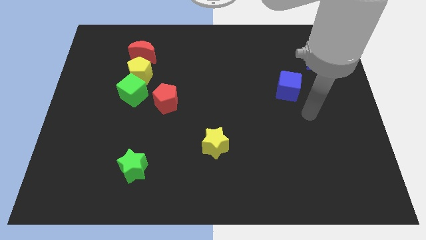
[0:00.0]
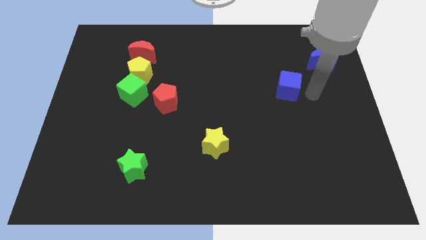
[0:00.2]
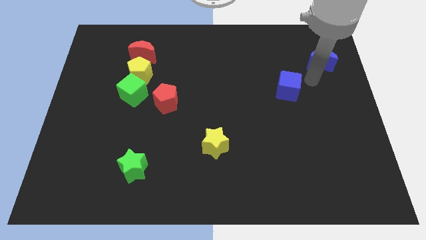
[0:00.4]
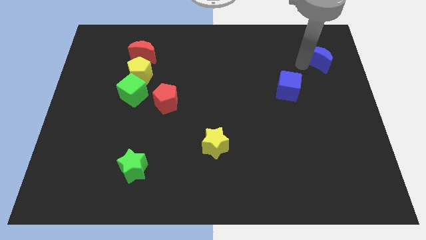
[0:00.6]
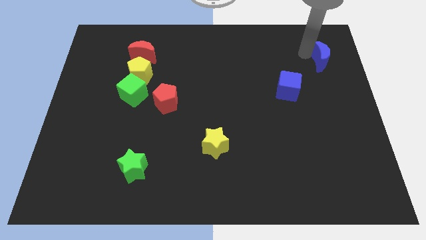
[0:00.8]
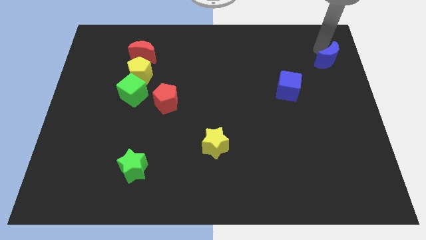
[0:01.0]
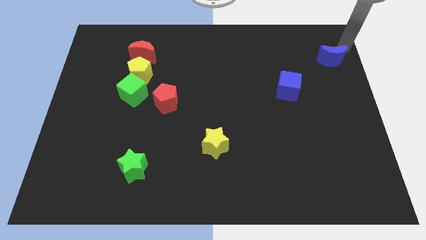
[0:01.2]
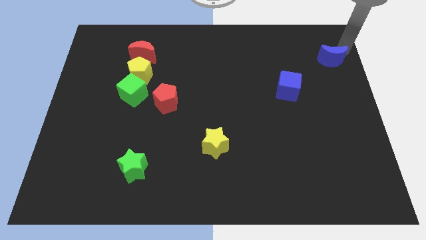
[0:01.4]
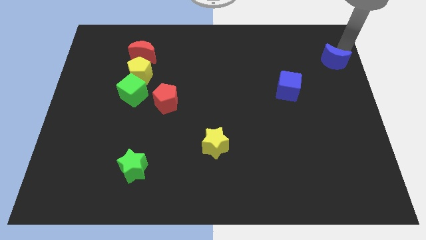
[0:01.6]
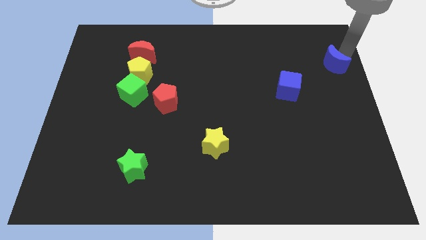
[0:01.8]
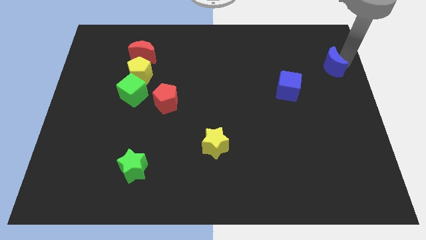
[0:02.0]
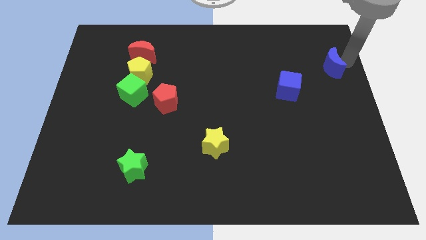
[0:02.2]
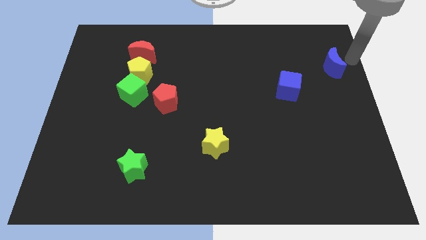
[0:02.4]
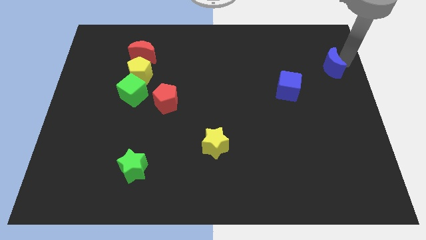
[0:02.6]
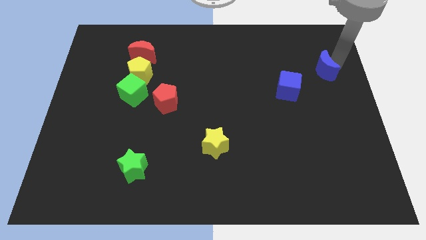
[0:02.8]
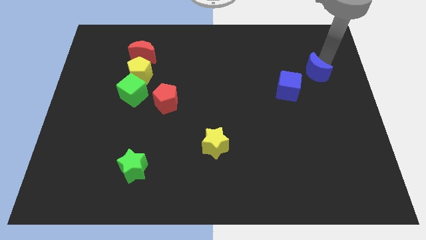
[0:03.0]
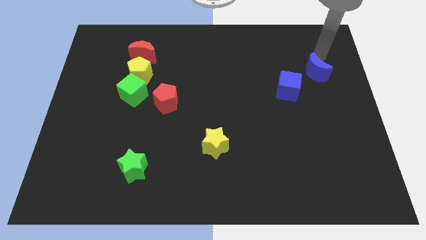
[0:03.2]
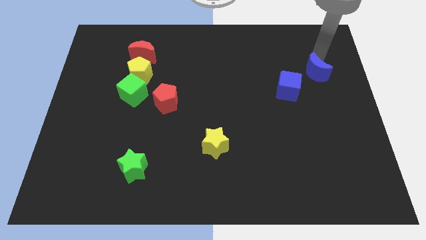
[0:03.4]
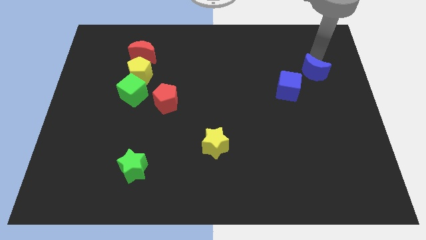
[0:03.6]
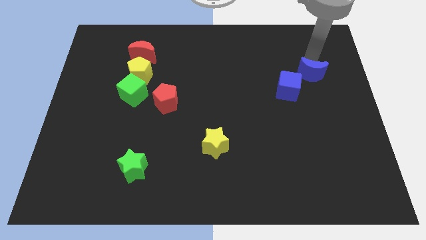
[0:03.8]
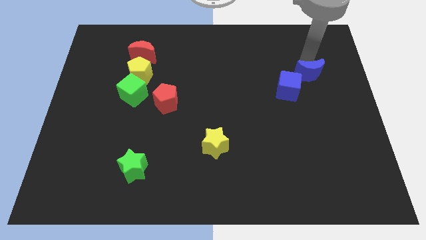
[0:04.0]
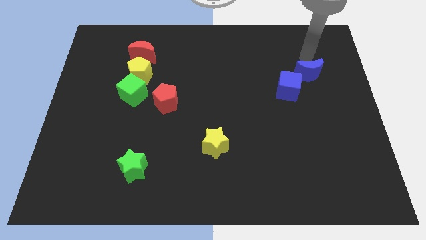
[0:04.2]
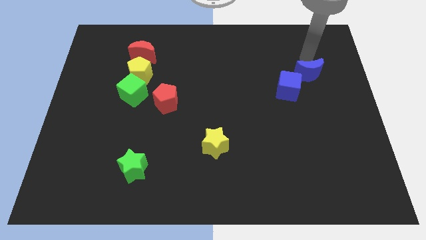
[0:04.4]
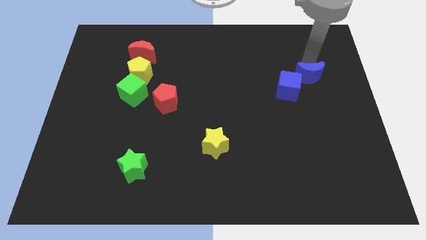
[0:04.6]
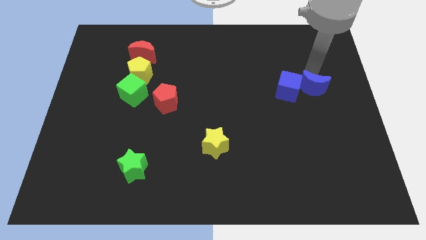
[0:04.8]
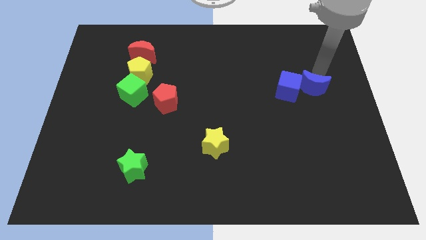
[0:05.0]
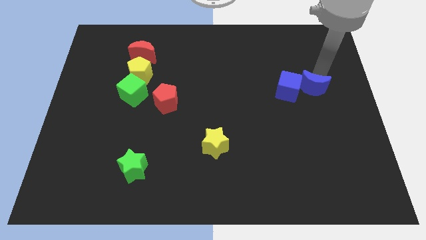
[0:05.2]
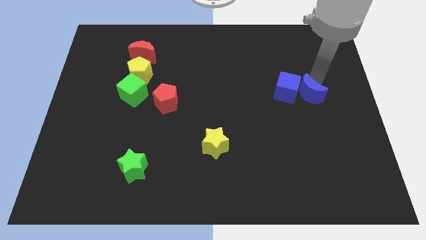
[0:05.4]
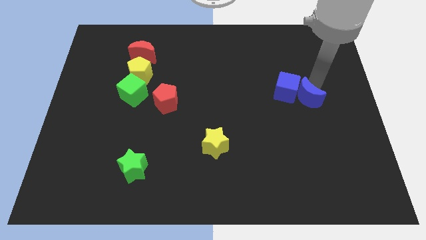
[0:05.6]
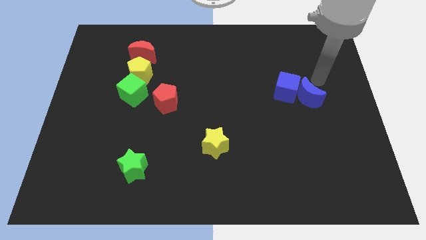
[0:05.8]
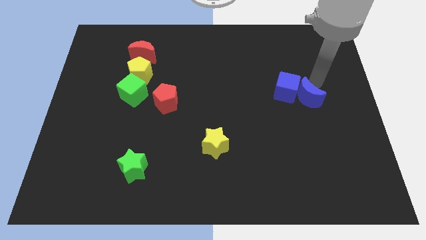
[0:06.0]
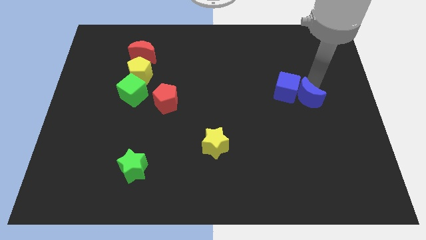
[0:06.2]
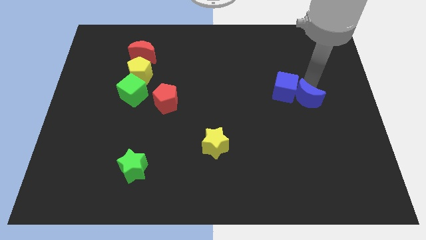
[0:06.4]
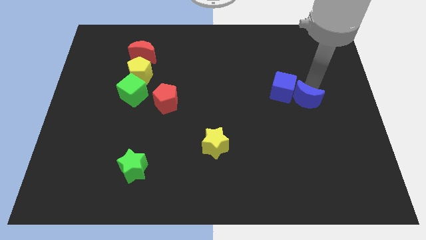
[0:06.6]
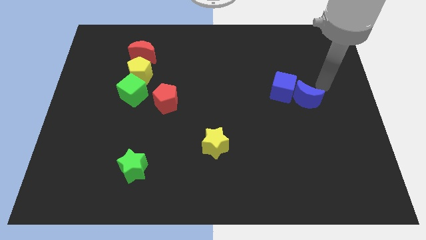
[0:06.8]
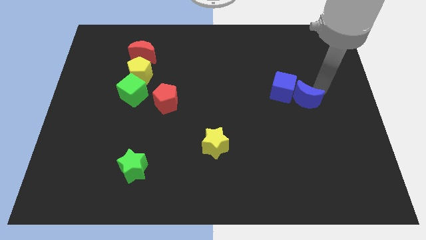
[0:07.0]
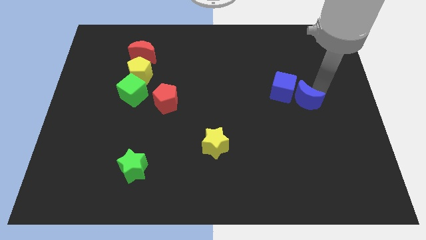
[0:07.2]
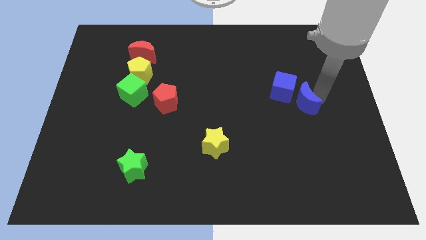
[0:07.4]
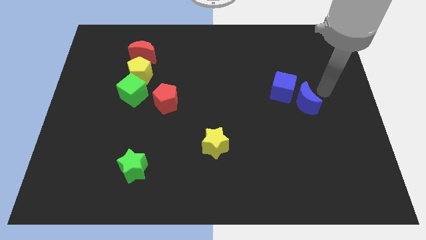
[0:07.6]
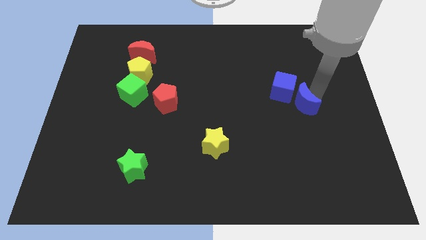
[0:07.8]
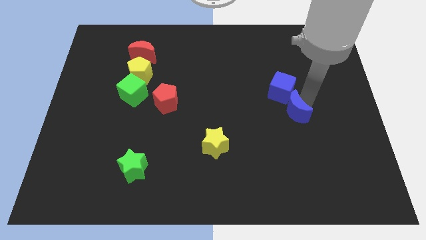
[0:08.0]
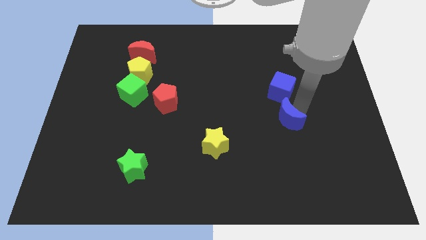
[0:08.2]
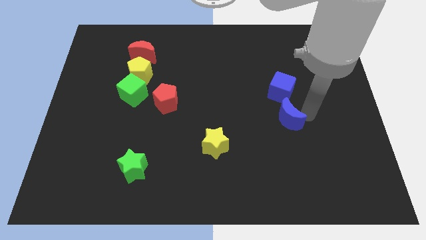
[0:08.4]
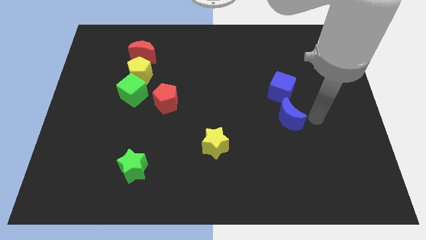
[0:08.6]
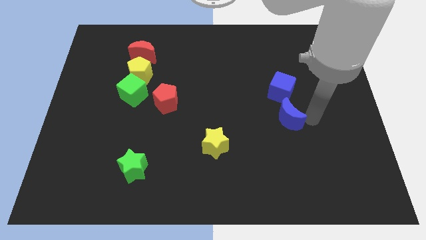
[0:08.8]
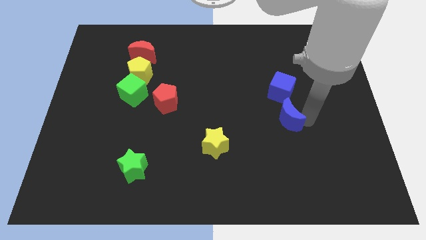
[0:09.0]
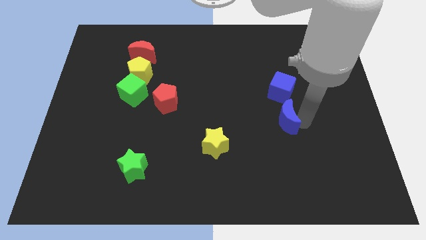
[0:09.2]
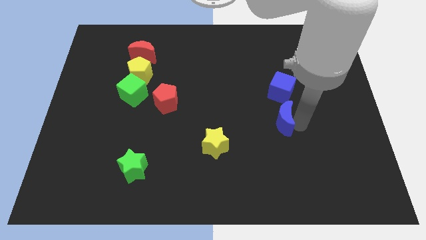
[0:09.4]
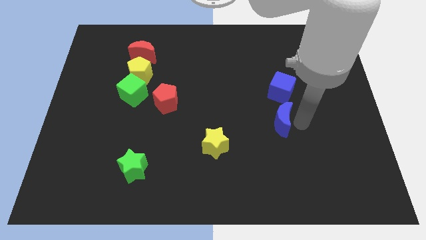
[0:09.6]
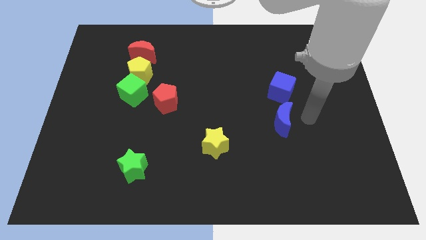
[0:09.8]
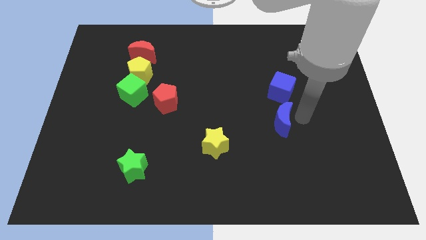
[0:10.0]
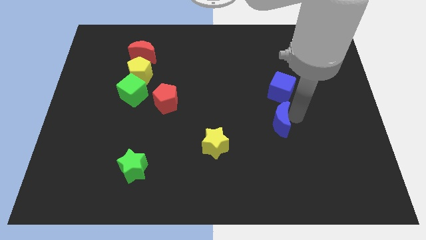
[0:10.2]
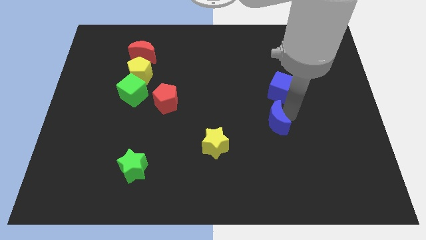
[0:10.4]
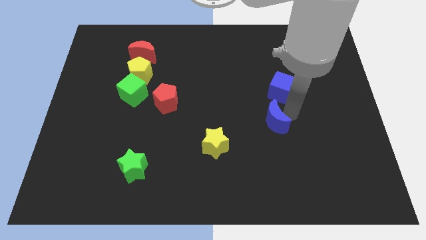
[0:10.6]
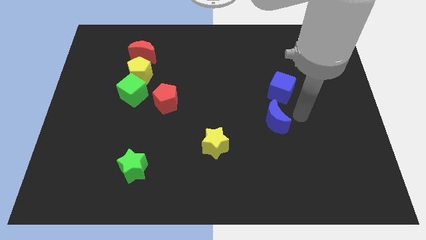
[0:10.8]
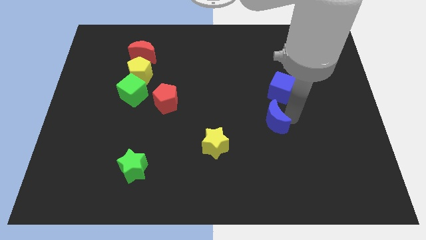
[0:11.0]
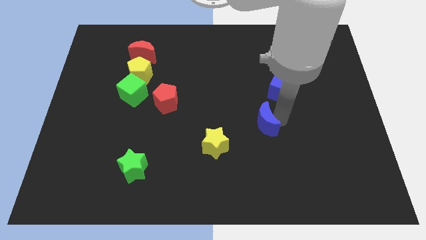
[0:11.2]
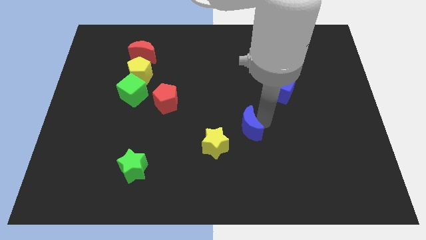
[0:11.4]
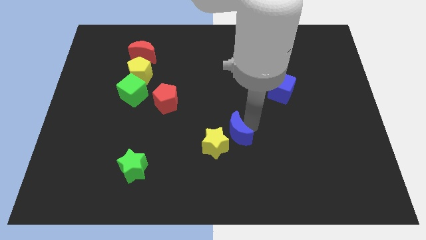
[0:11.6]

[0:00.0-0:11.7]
move the blue moon close to the yellow star

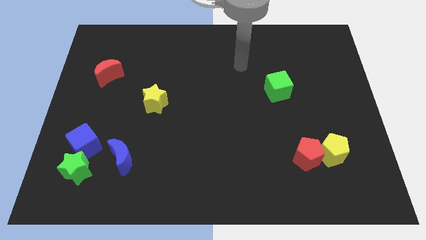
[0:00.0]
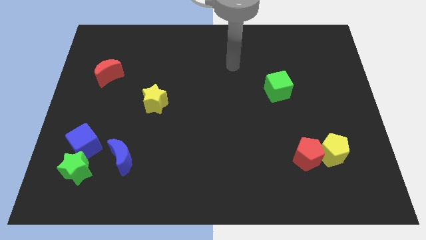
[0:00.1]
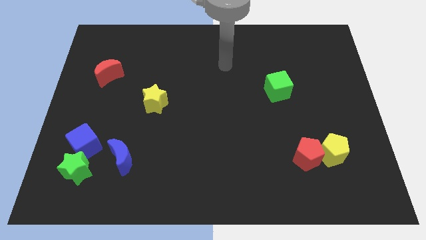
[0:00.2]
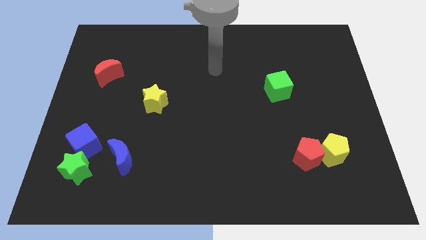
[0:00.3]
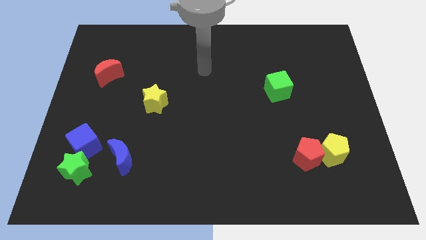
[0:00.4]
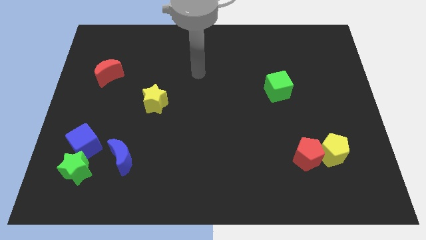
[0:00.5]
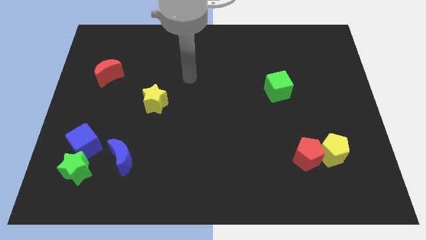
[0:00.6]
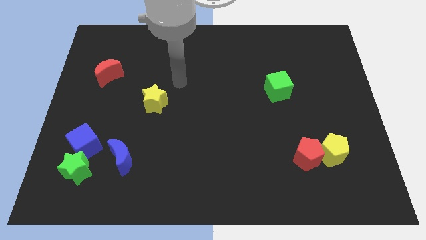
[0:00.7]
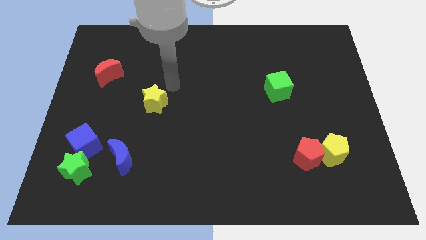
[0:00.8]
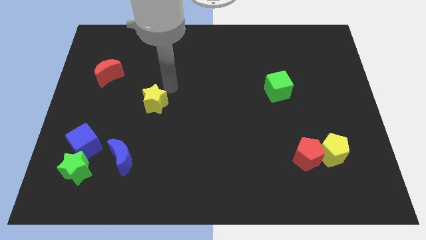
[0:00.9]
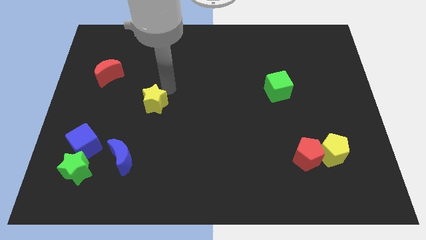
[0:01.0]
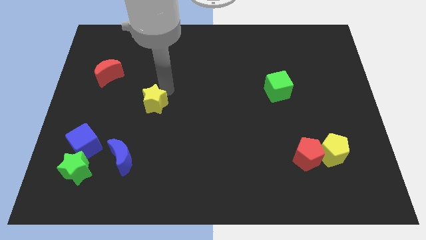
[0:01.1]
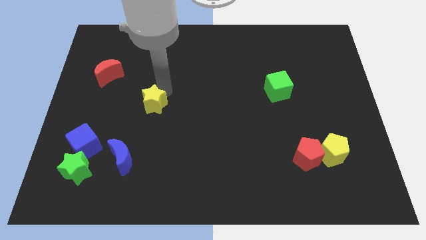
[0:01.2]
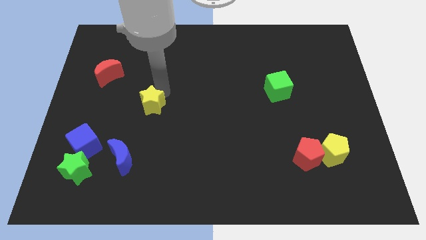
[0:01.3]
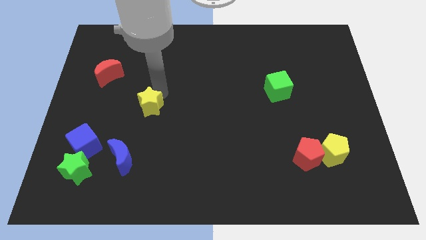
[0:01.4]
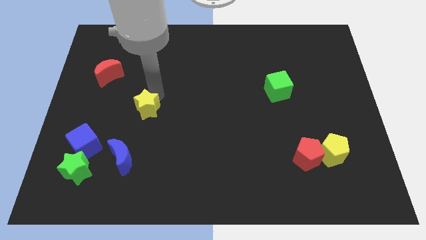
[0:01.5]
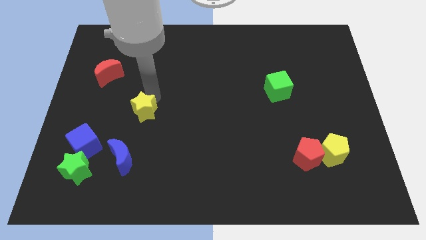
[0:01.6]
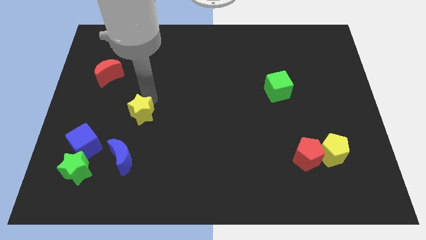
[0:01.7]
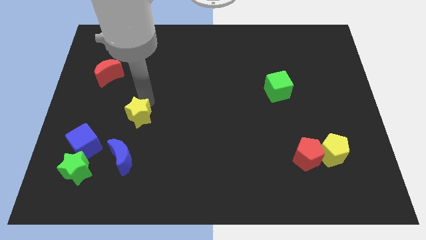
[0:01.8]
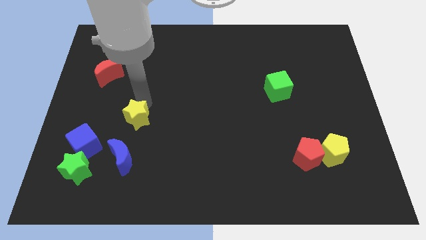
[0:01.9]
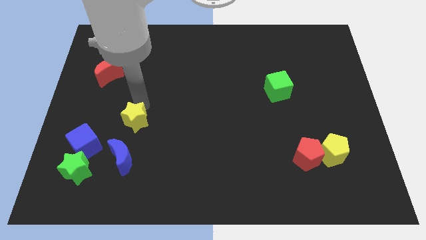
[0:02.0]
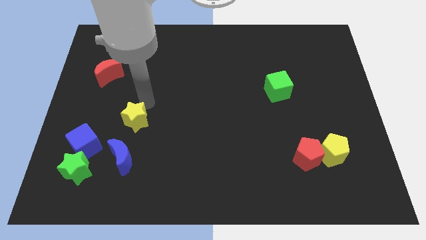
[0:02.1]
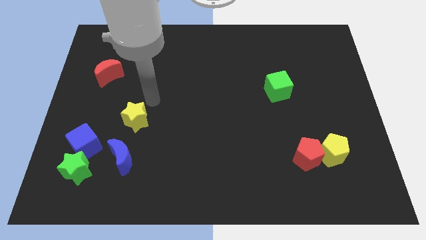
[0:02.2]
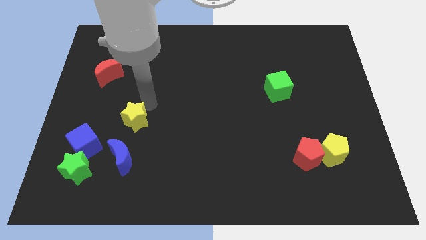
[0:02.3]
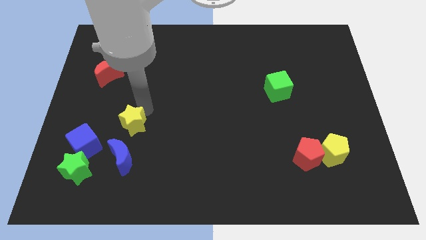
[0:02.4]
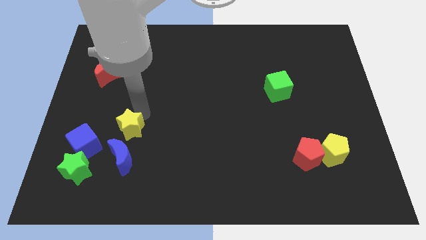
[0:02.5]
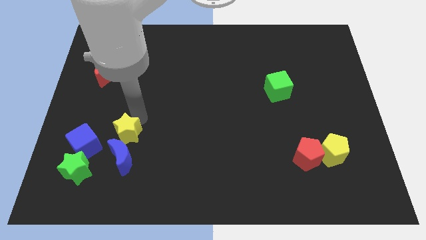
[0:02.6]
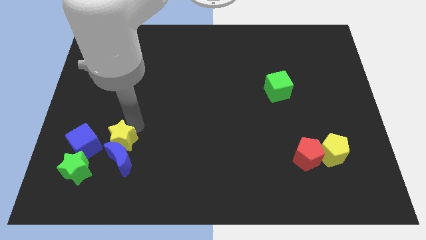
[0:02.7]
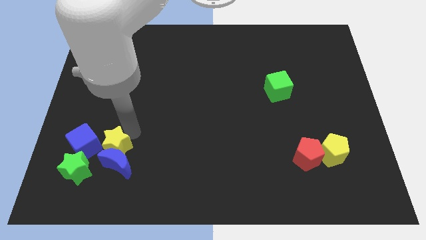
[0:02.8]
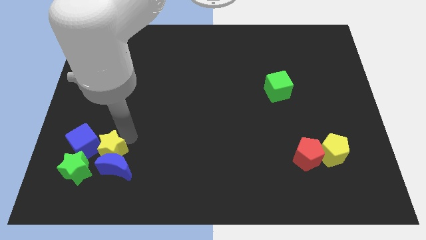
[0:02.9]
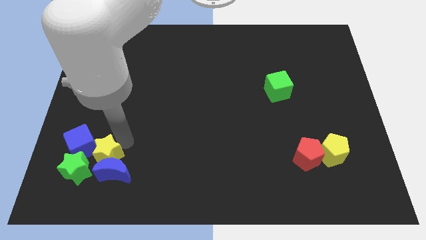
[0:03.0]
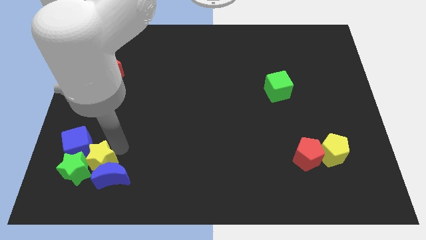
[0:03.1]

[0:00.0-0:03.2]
slide the yellow star next to the green star
